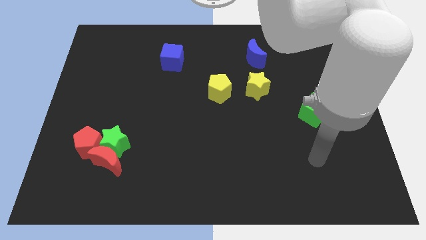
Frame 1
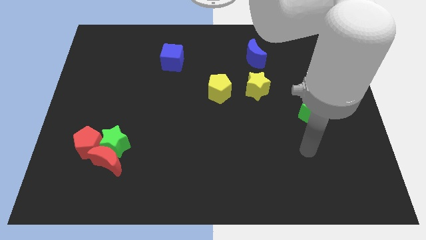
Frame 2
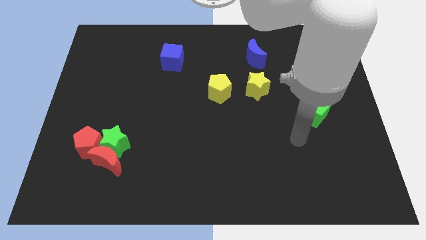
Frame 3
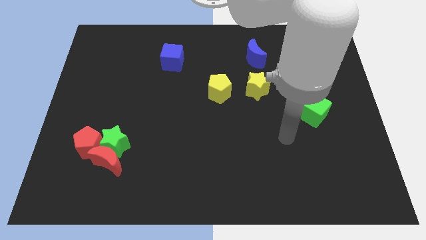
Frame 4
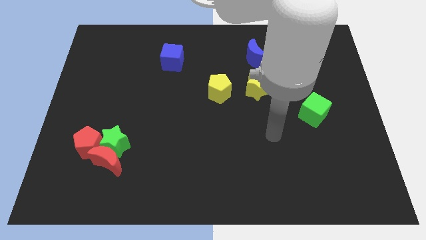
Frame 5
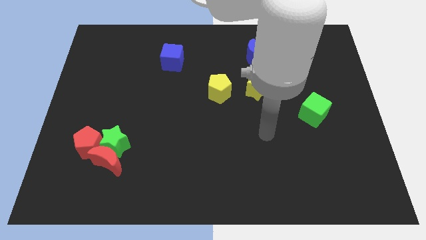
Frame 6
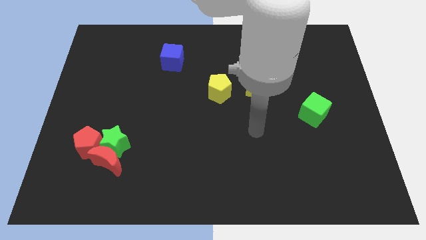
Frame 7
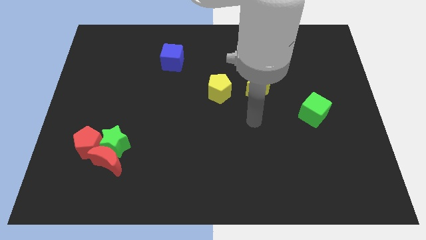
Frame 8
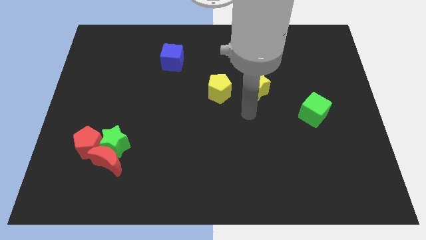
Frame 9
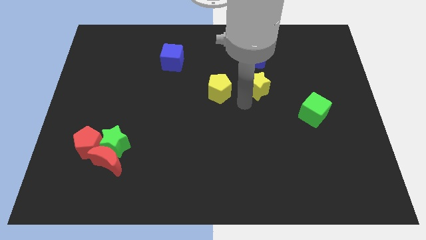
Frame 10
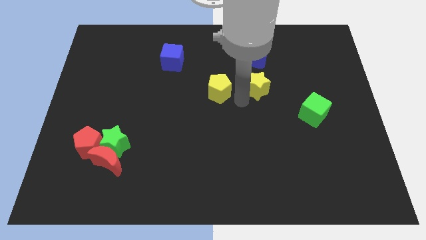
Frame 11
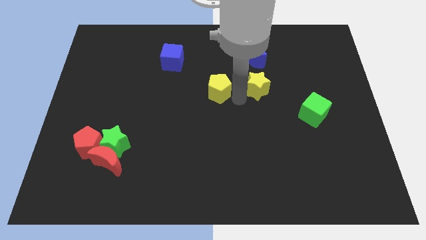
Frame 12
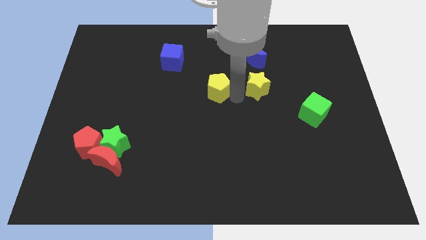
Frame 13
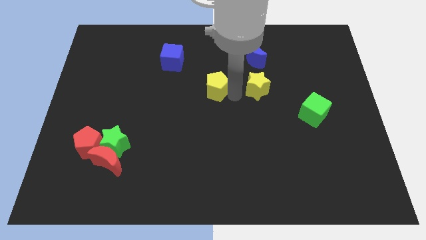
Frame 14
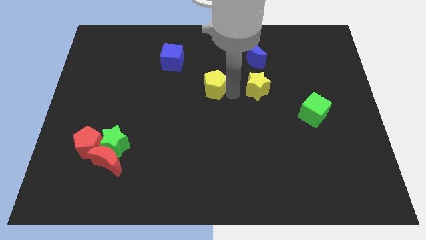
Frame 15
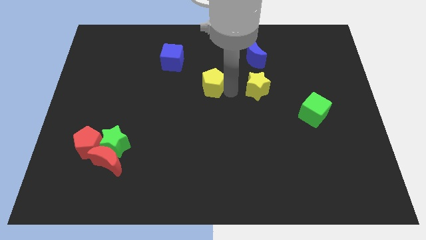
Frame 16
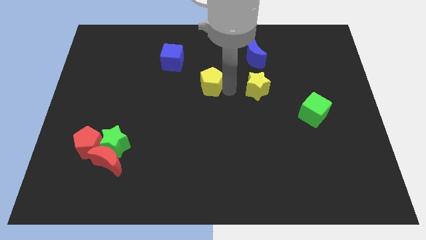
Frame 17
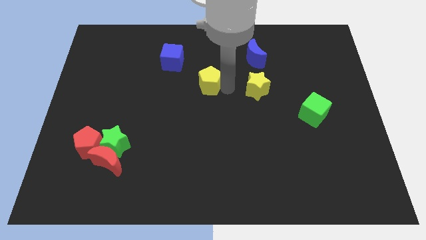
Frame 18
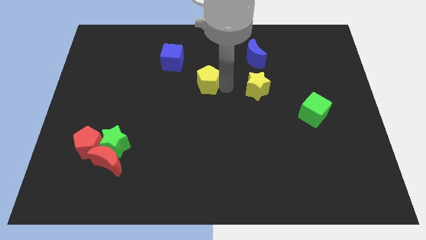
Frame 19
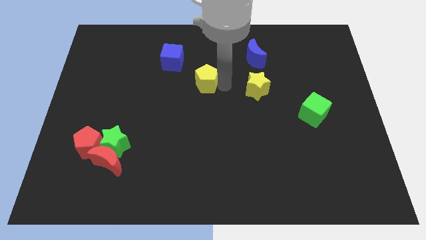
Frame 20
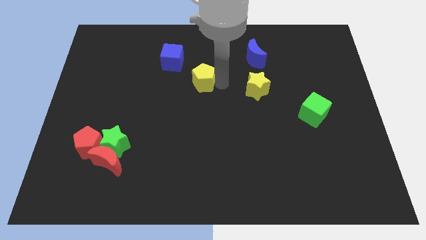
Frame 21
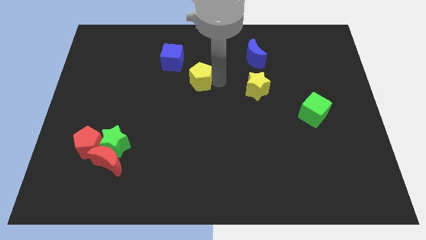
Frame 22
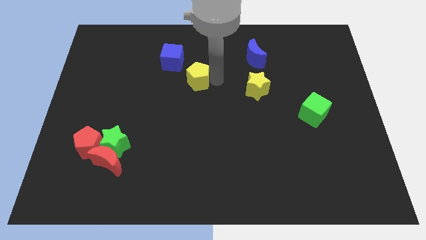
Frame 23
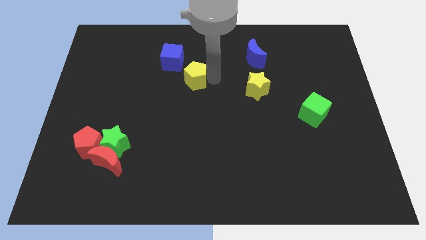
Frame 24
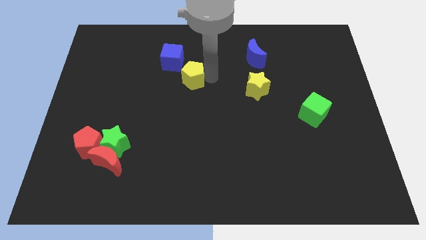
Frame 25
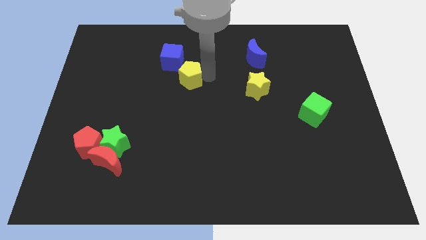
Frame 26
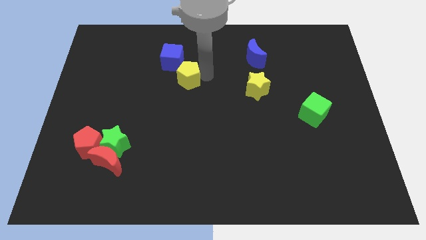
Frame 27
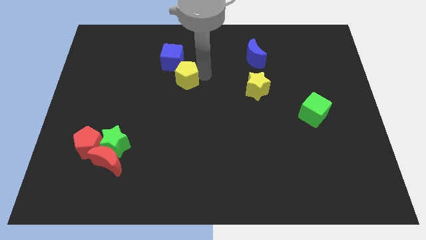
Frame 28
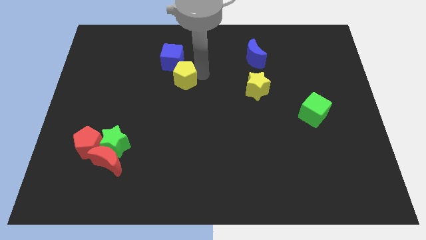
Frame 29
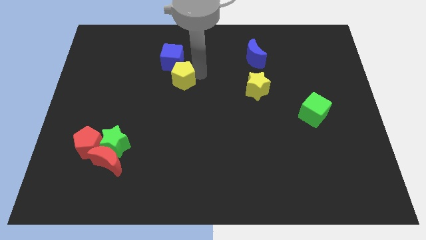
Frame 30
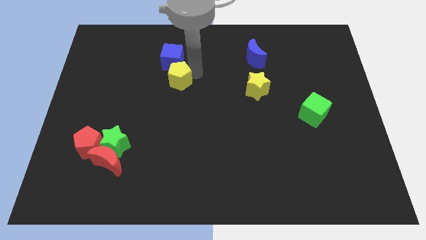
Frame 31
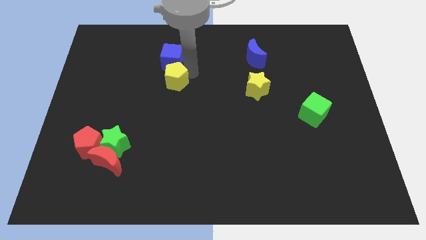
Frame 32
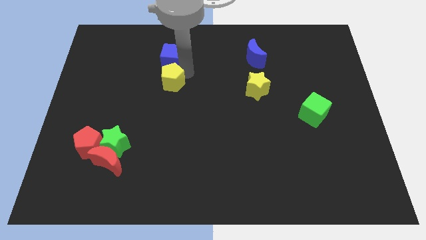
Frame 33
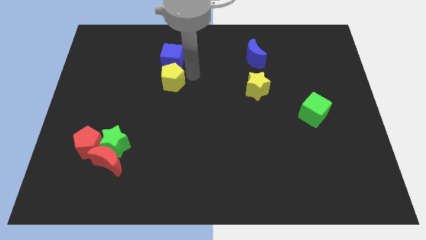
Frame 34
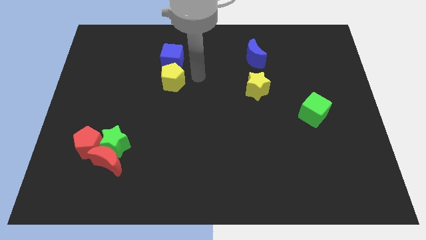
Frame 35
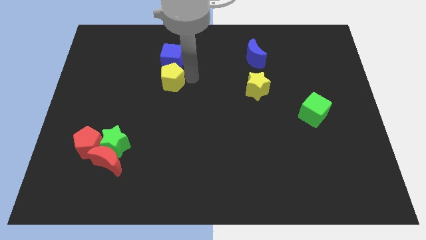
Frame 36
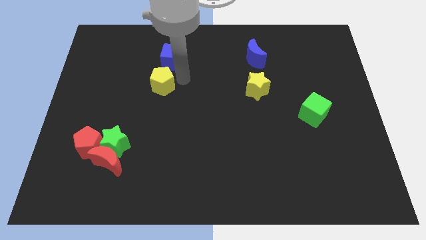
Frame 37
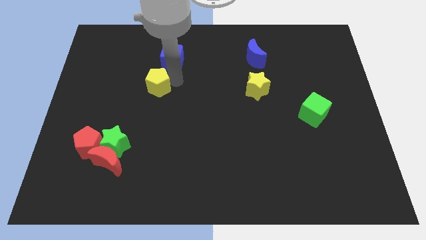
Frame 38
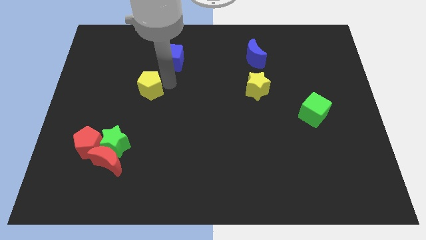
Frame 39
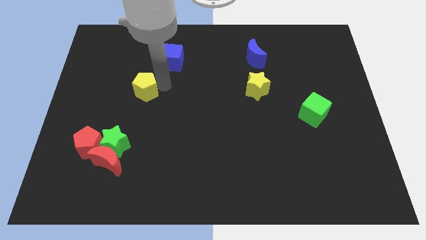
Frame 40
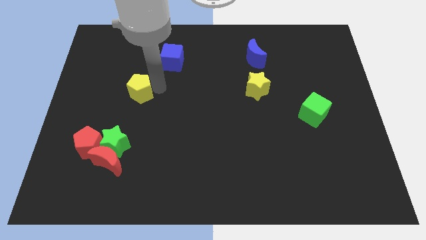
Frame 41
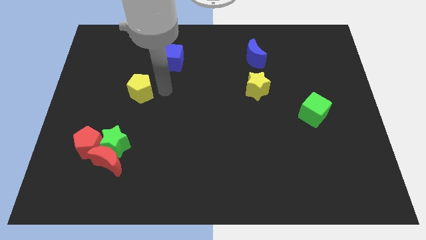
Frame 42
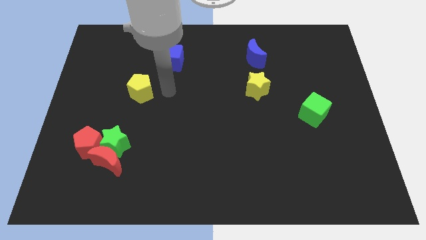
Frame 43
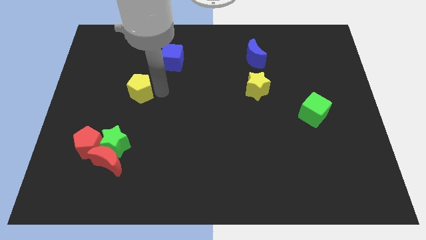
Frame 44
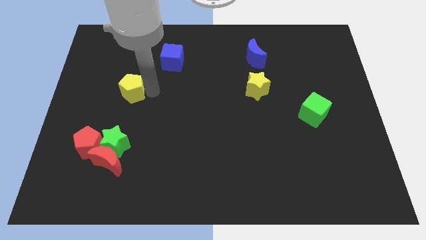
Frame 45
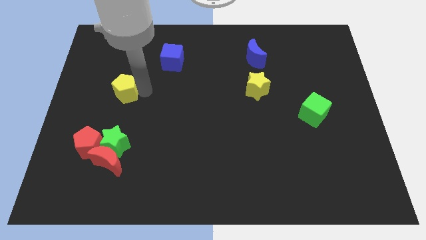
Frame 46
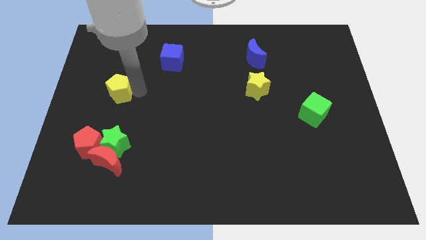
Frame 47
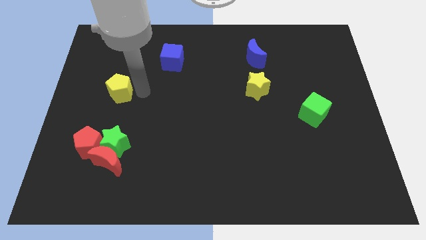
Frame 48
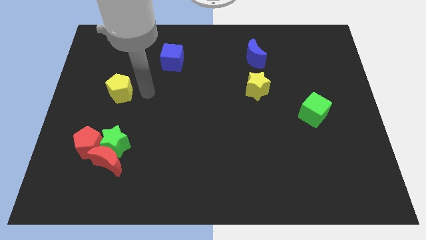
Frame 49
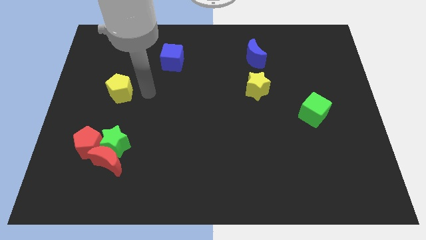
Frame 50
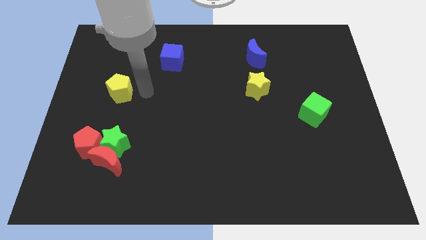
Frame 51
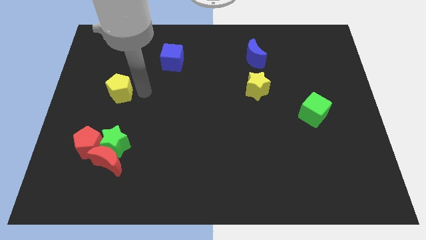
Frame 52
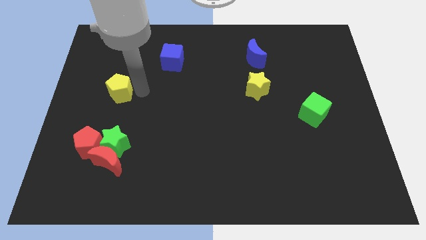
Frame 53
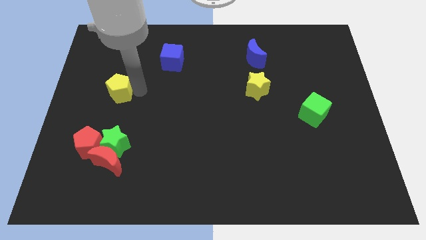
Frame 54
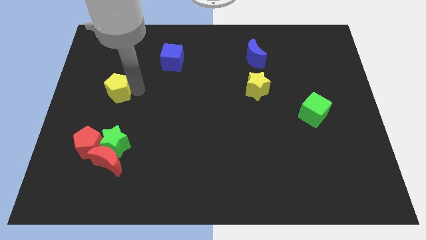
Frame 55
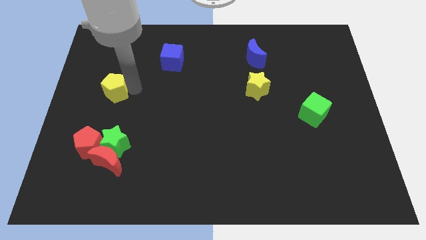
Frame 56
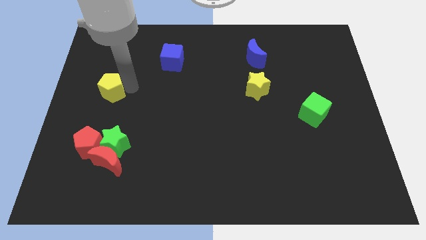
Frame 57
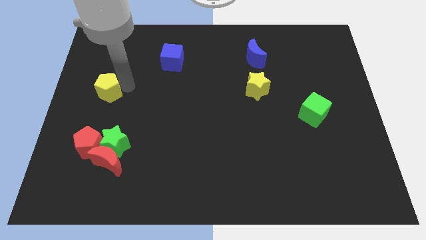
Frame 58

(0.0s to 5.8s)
move the yellow pentagon to the center left

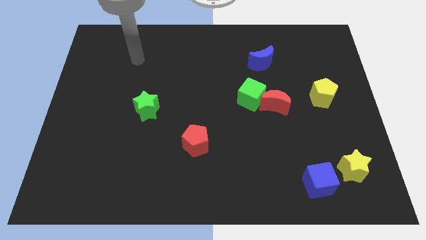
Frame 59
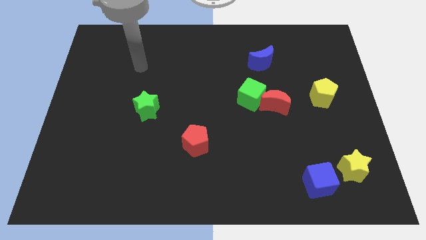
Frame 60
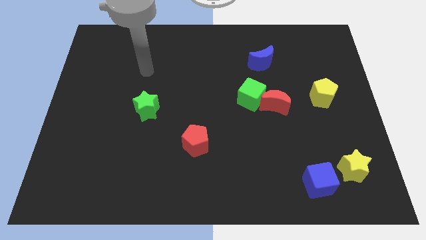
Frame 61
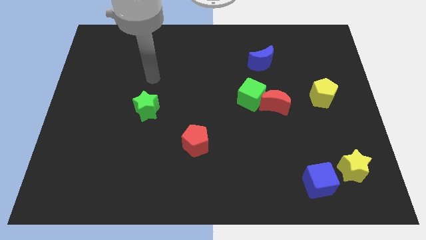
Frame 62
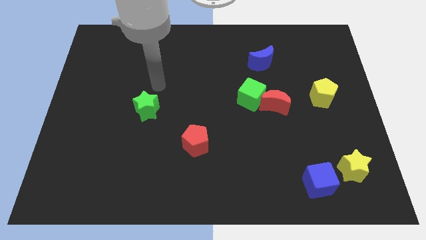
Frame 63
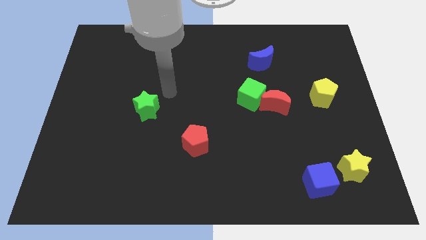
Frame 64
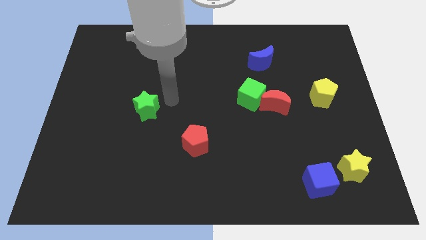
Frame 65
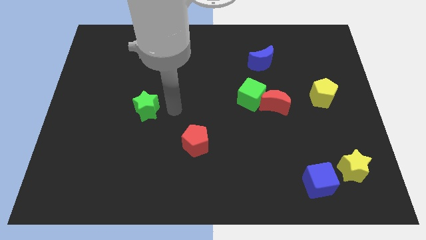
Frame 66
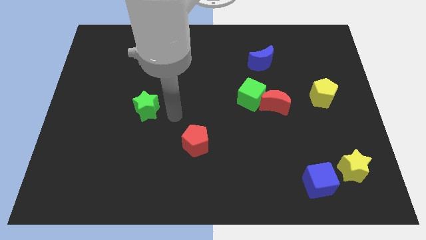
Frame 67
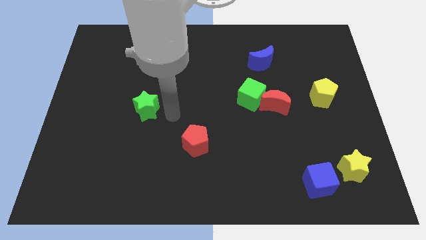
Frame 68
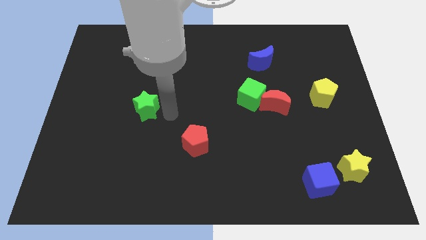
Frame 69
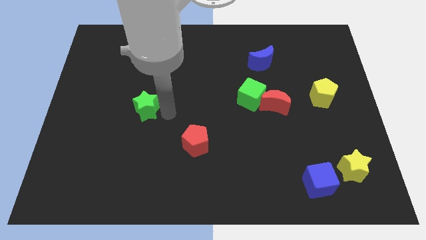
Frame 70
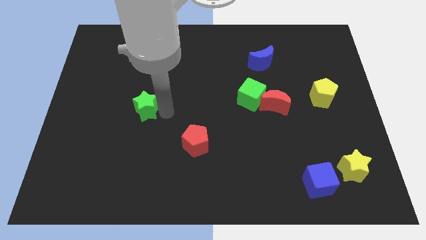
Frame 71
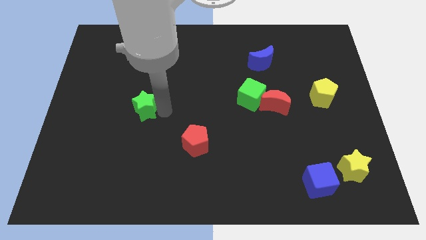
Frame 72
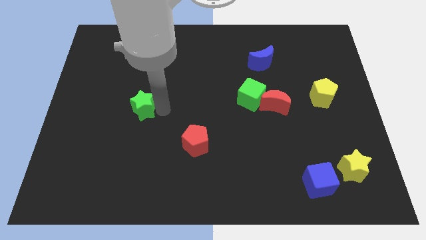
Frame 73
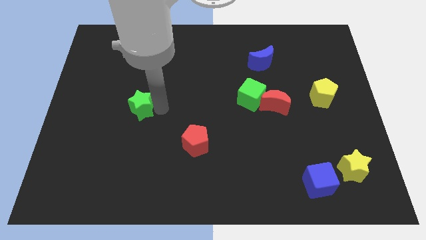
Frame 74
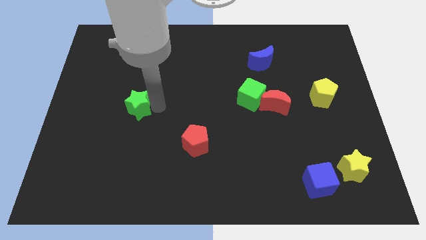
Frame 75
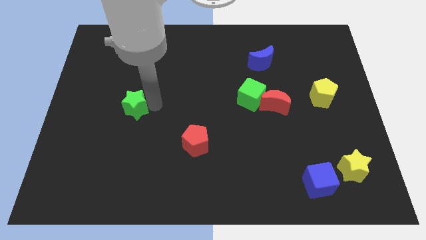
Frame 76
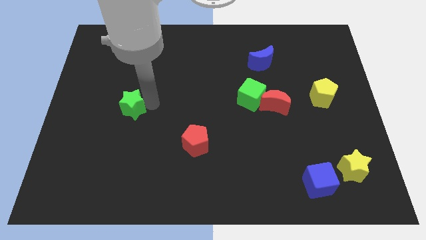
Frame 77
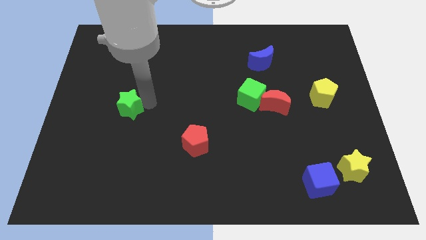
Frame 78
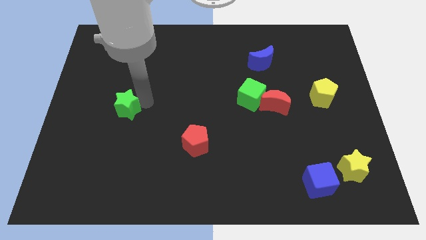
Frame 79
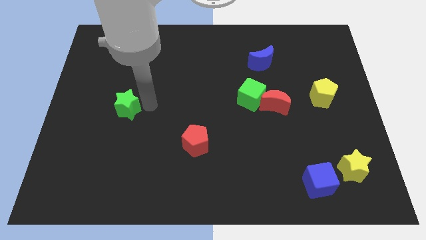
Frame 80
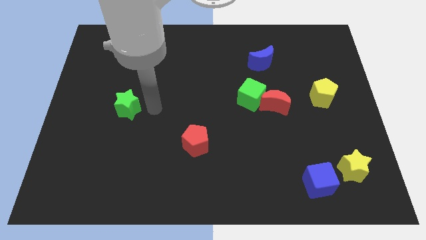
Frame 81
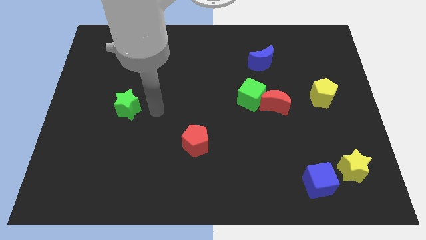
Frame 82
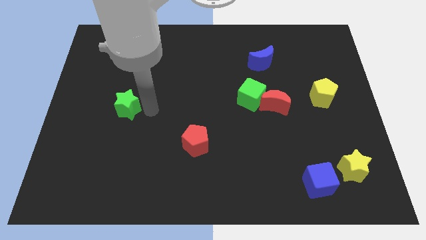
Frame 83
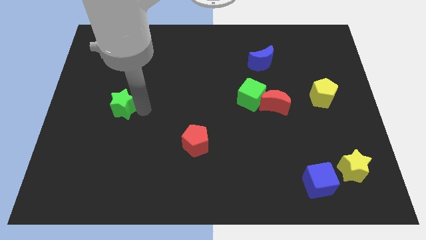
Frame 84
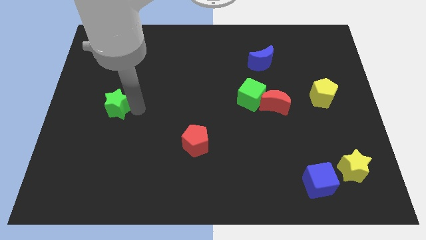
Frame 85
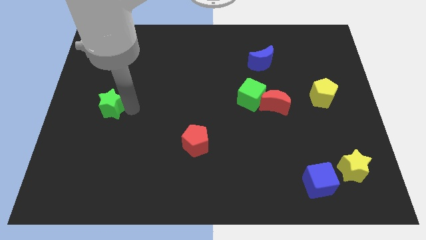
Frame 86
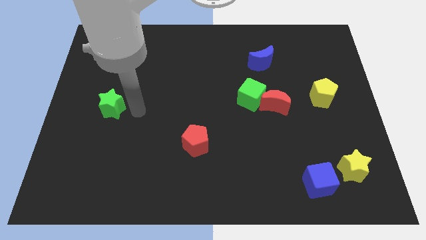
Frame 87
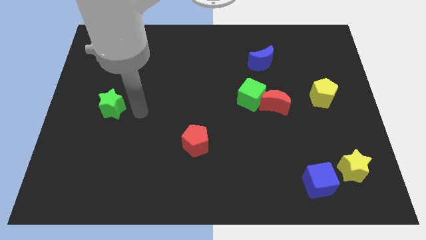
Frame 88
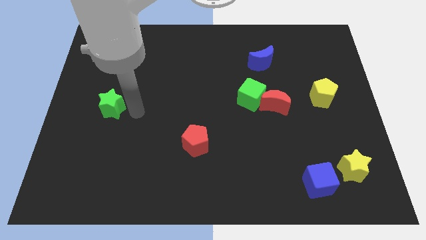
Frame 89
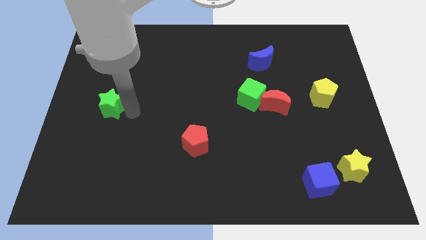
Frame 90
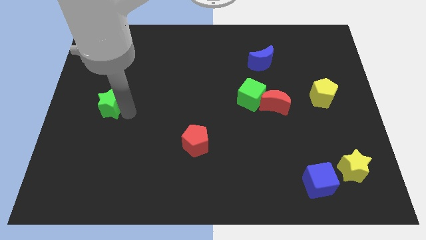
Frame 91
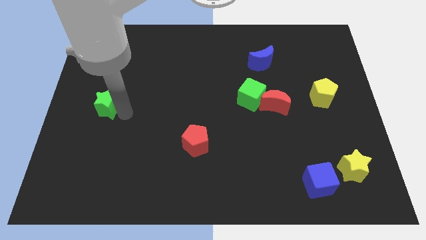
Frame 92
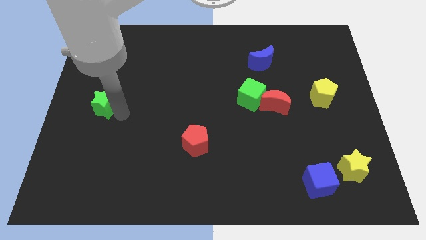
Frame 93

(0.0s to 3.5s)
move the green star to the left side of the board
